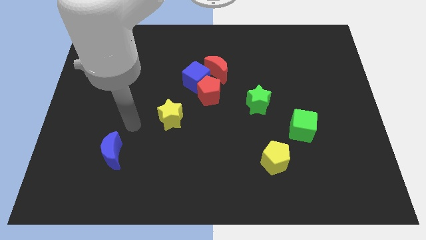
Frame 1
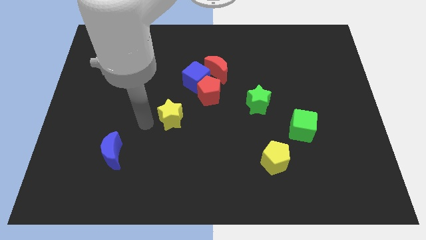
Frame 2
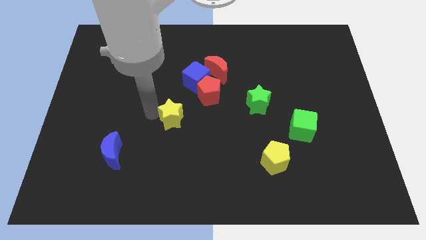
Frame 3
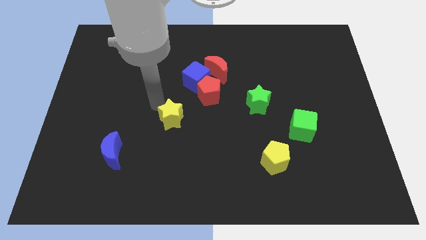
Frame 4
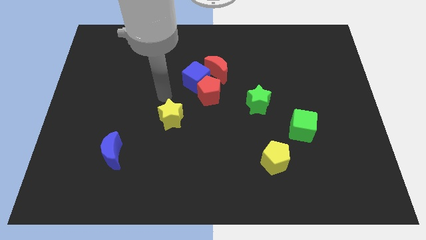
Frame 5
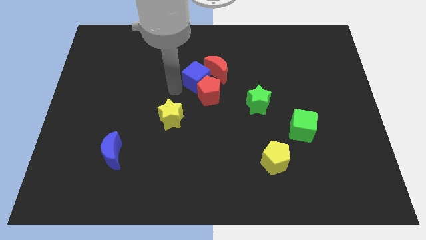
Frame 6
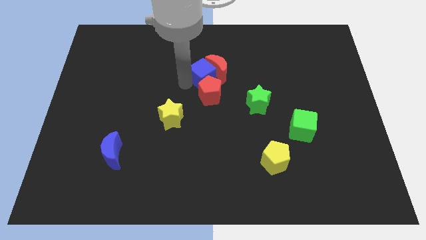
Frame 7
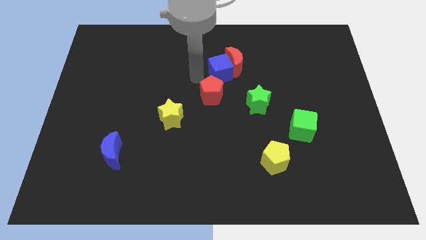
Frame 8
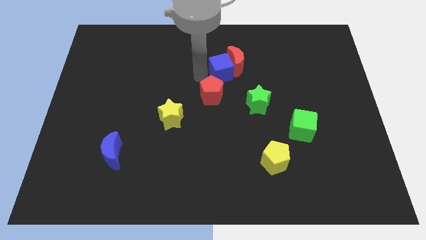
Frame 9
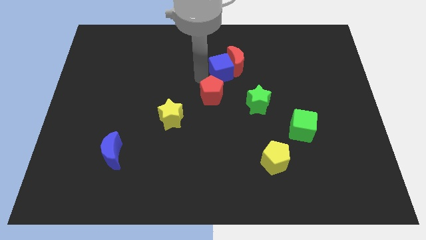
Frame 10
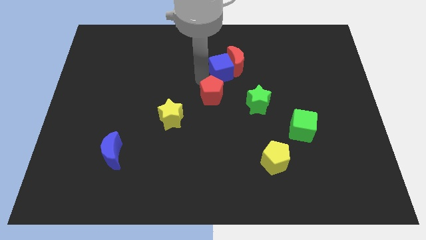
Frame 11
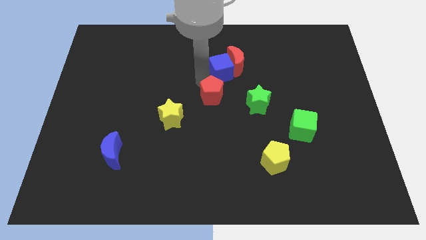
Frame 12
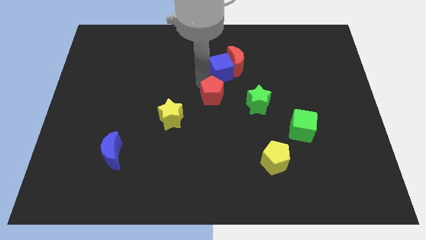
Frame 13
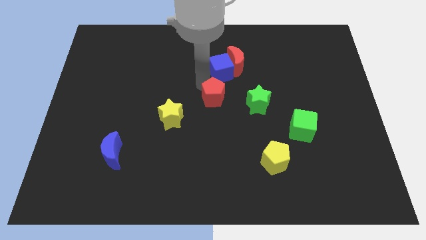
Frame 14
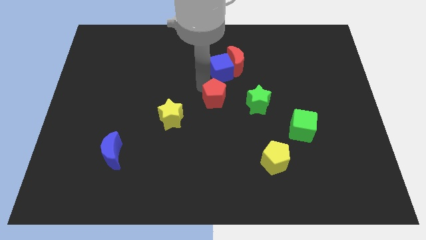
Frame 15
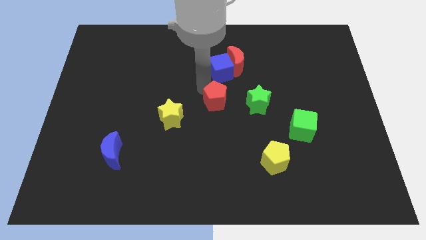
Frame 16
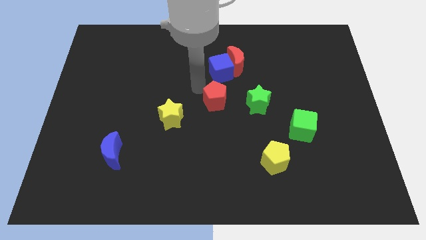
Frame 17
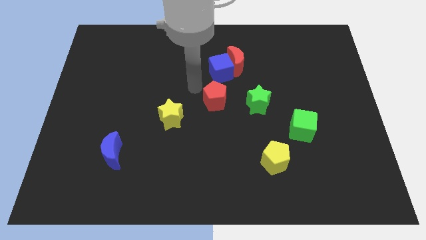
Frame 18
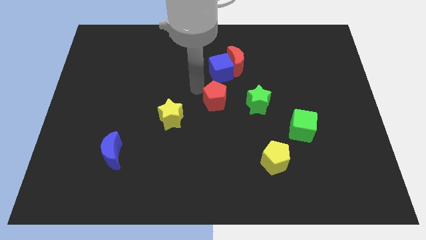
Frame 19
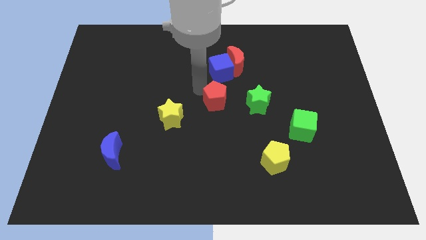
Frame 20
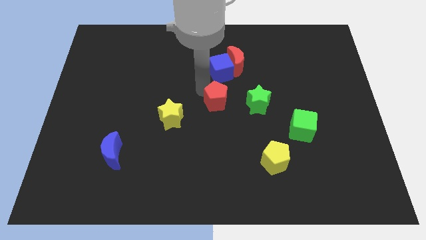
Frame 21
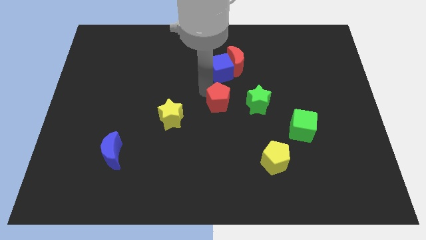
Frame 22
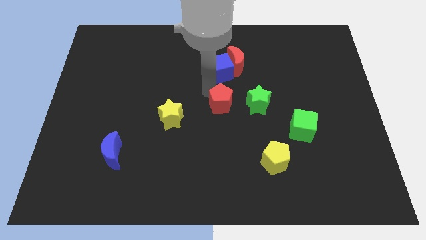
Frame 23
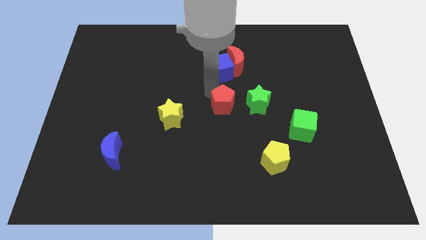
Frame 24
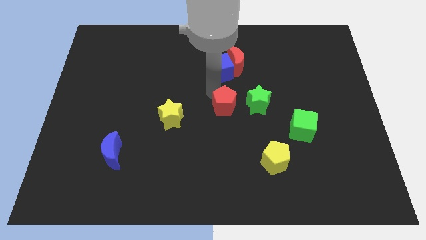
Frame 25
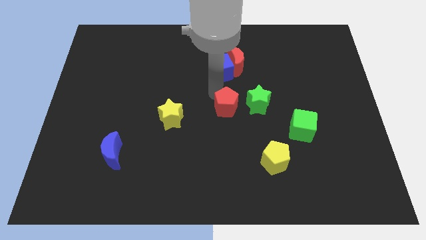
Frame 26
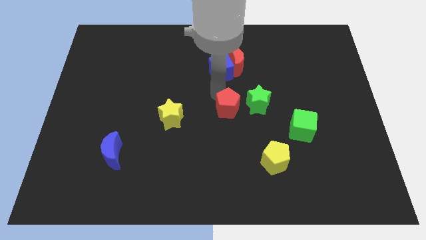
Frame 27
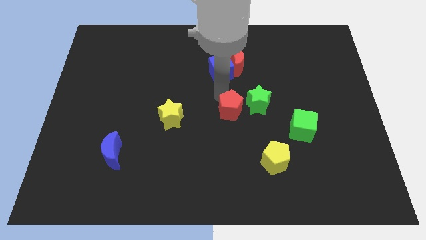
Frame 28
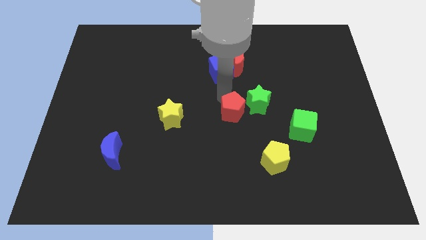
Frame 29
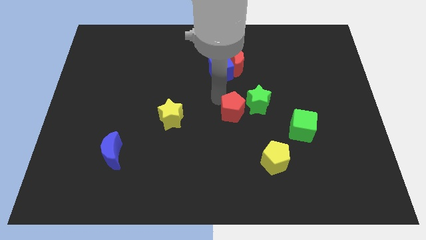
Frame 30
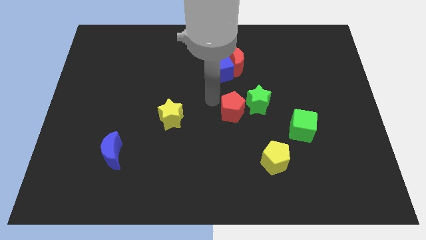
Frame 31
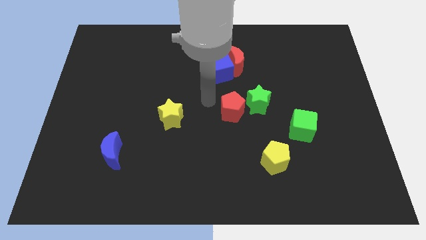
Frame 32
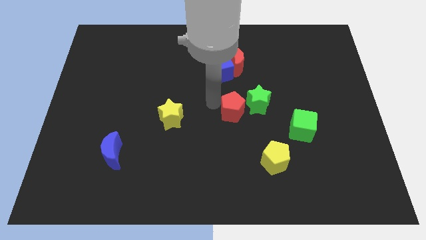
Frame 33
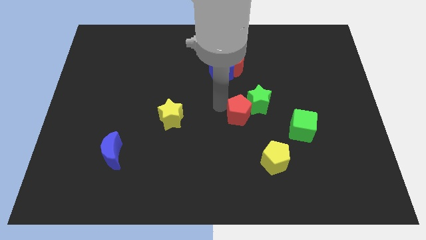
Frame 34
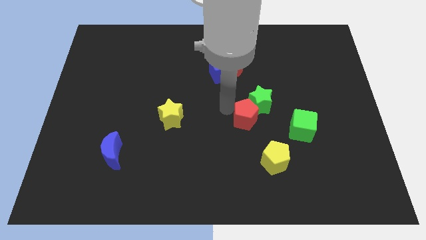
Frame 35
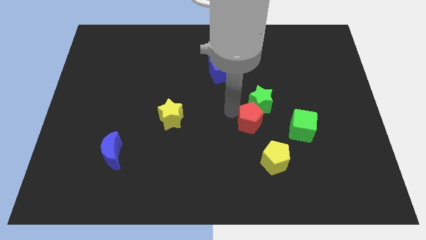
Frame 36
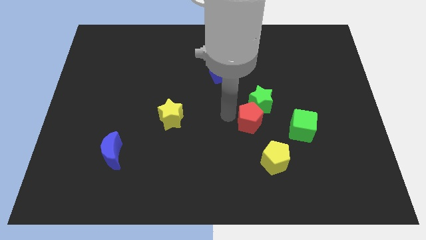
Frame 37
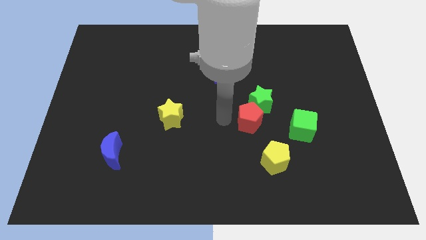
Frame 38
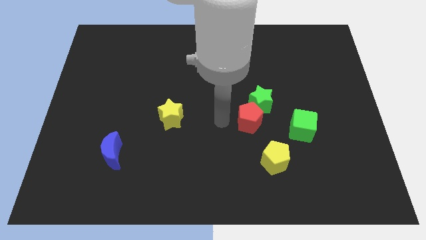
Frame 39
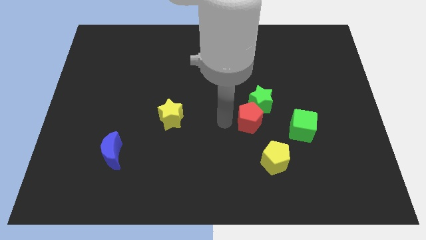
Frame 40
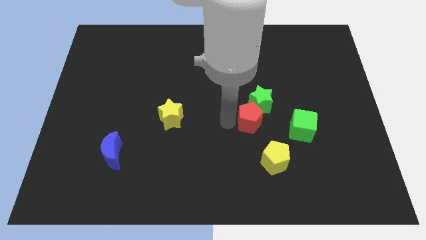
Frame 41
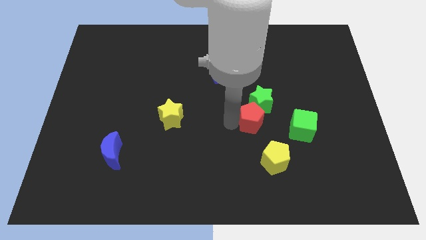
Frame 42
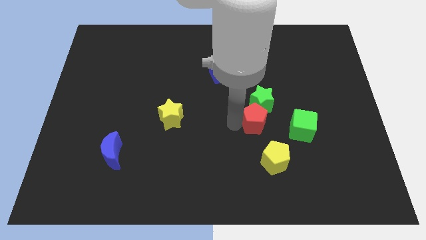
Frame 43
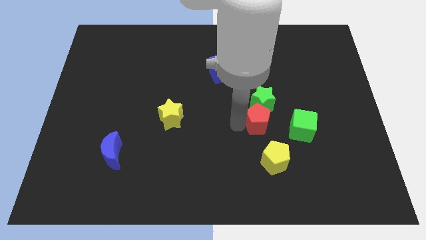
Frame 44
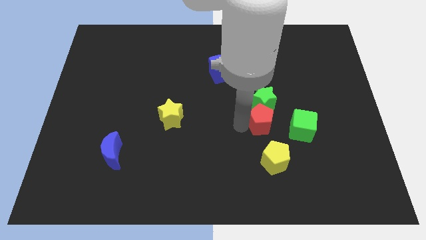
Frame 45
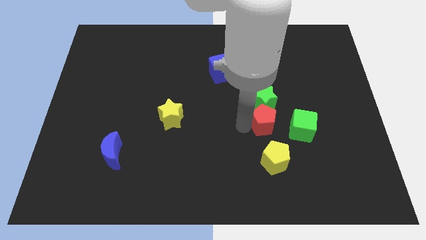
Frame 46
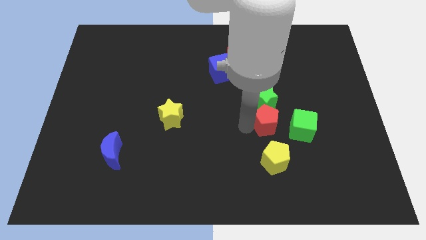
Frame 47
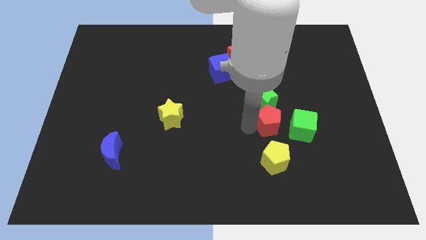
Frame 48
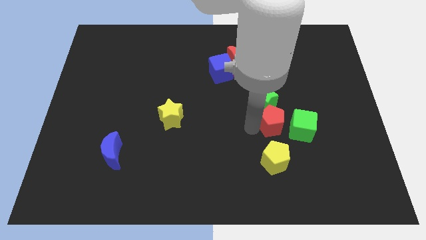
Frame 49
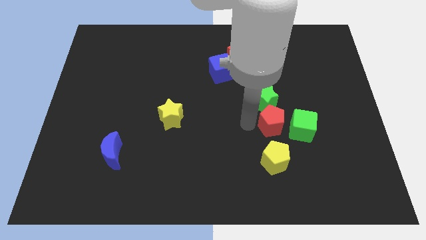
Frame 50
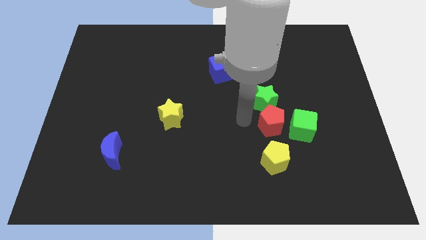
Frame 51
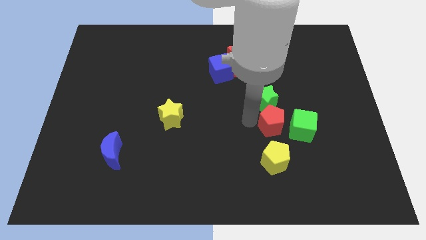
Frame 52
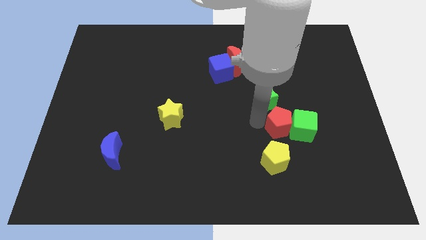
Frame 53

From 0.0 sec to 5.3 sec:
slide the red pentagon close to the green cube

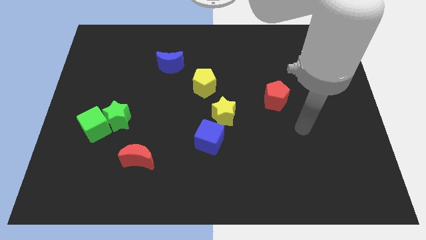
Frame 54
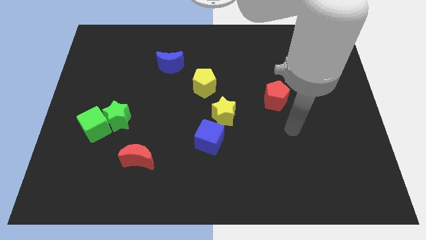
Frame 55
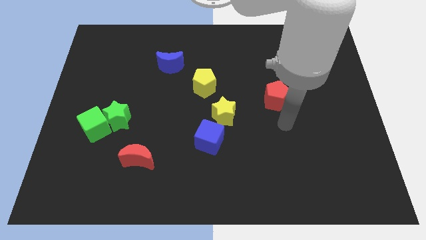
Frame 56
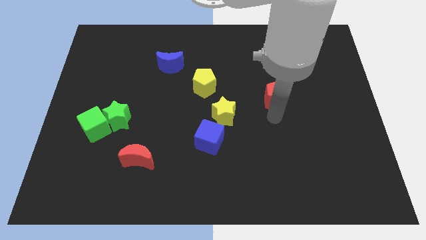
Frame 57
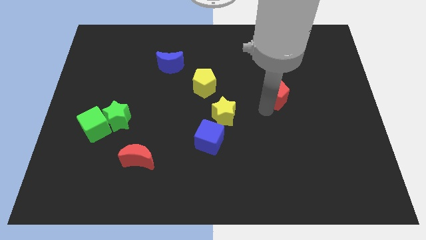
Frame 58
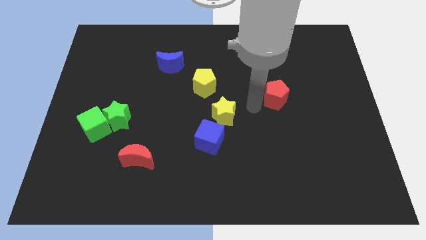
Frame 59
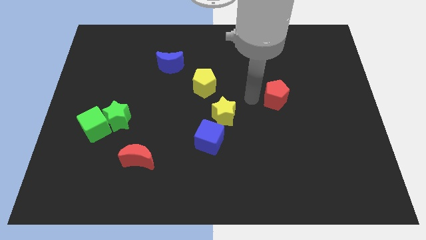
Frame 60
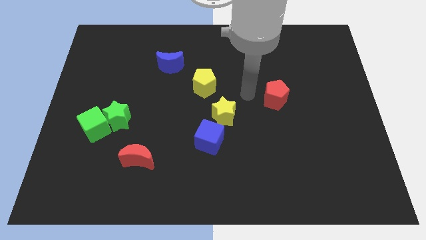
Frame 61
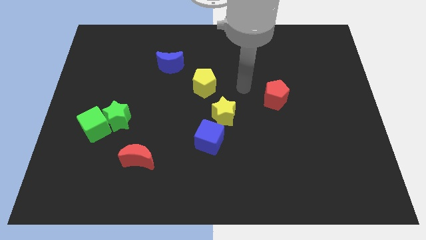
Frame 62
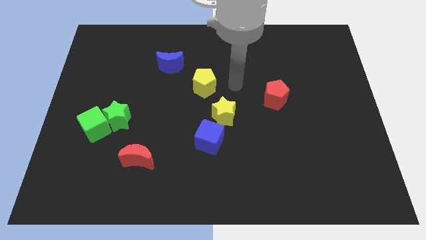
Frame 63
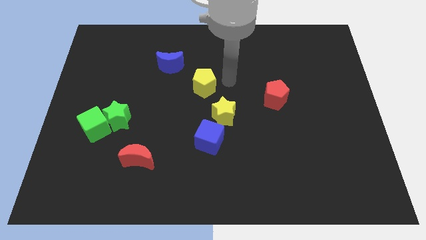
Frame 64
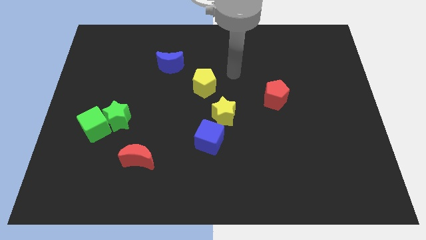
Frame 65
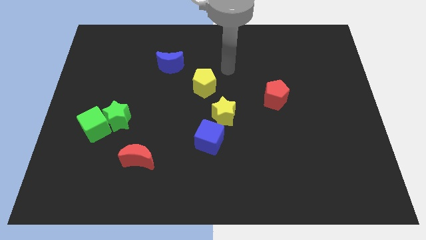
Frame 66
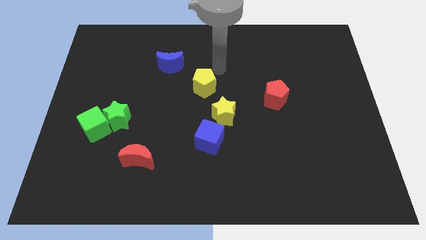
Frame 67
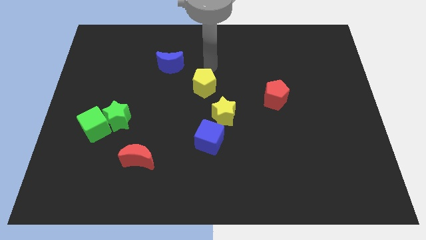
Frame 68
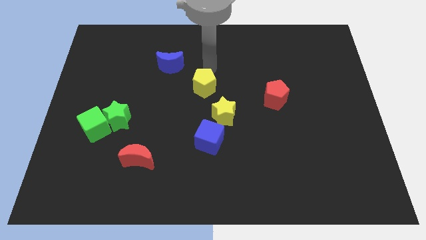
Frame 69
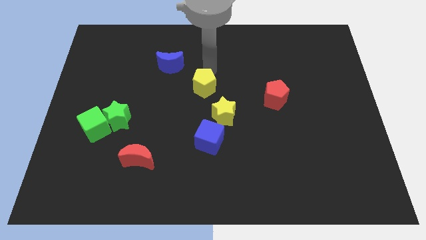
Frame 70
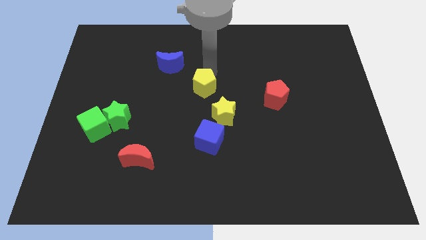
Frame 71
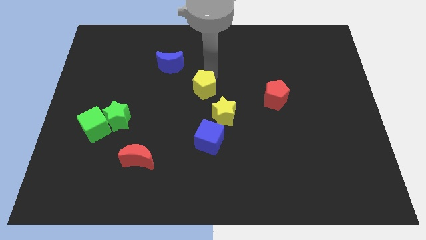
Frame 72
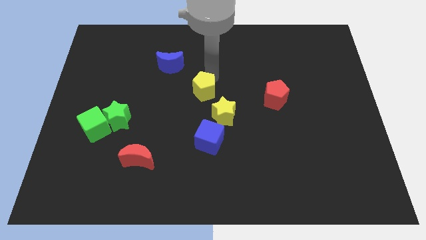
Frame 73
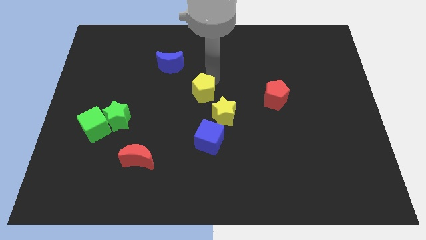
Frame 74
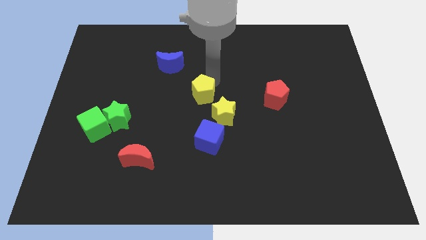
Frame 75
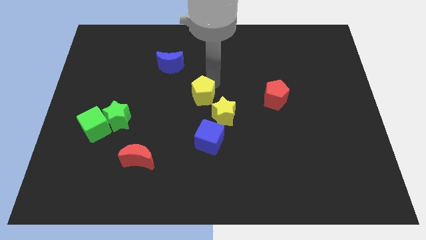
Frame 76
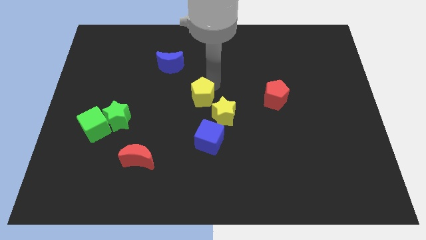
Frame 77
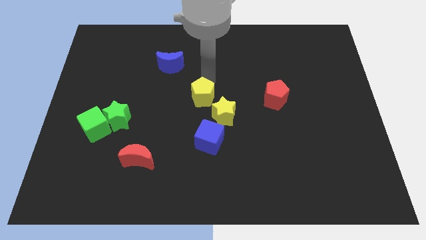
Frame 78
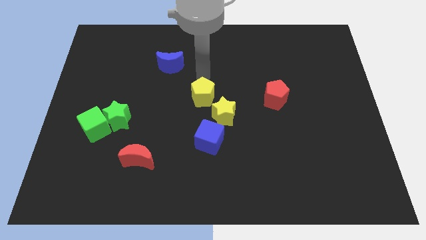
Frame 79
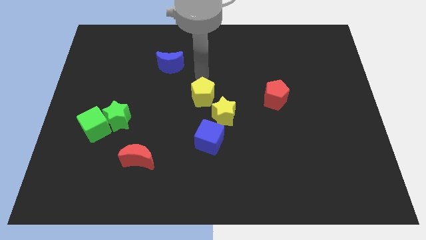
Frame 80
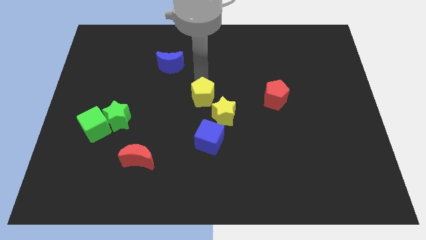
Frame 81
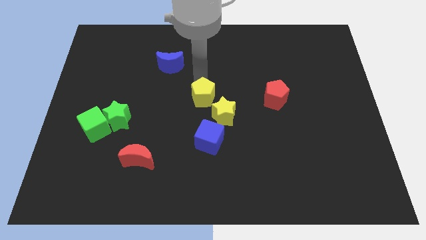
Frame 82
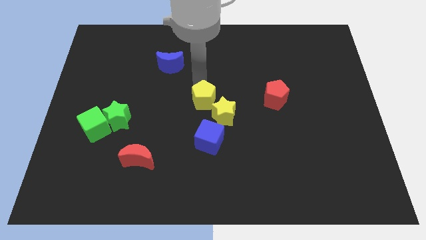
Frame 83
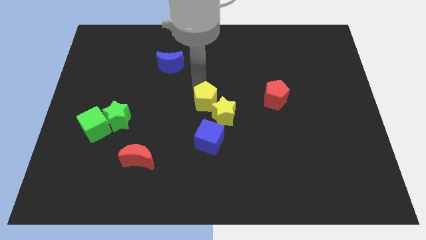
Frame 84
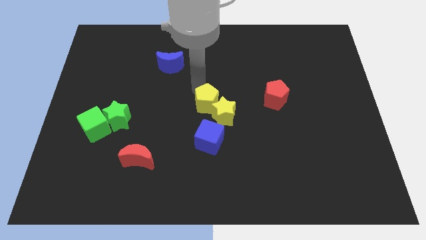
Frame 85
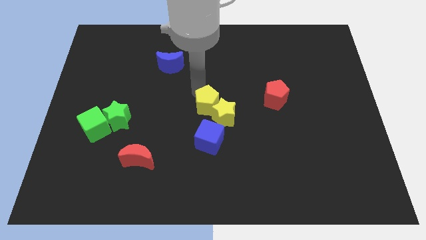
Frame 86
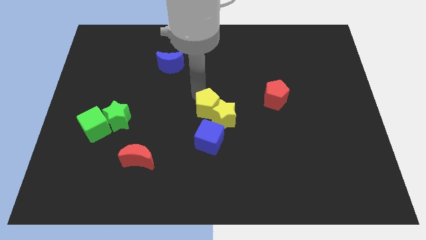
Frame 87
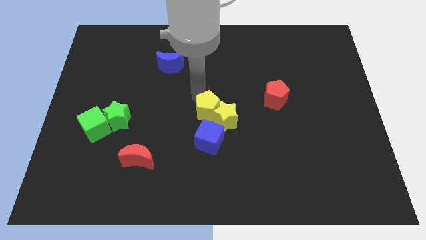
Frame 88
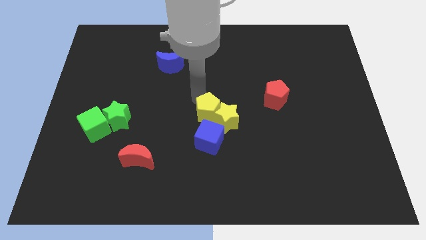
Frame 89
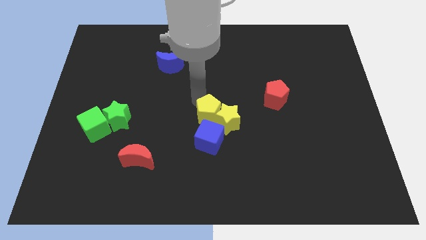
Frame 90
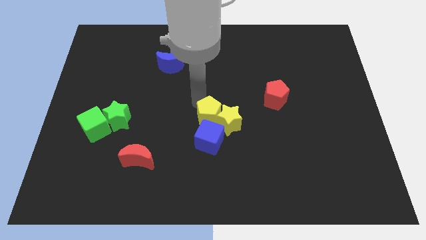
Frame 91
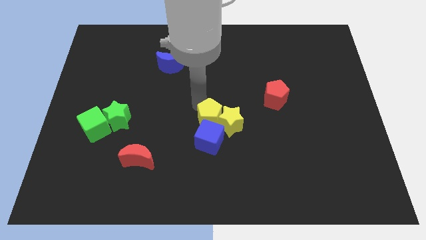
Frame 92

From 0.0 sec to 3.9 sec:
push the yellow pentagon towards the blue cube
